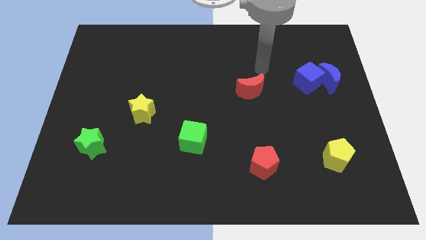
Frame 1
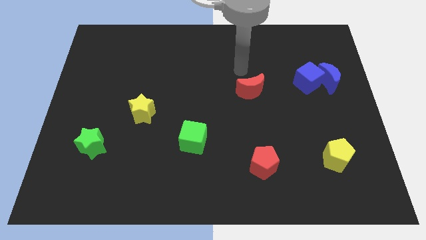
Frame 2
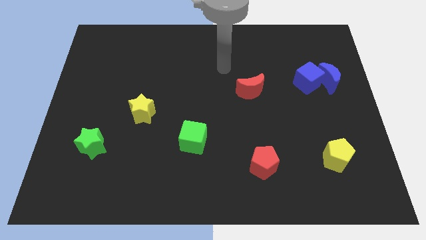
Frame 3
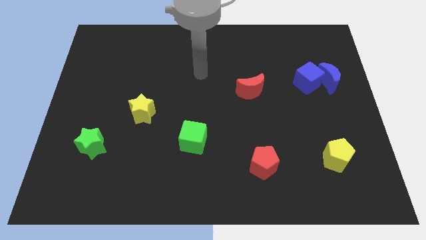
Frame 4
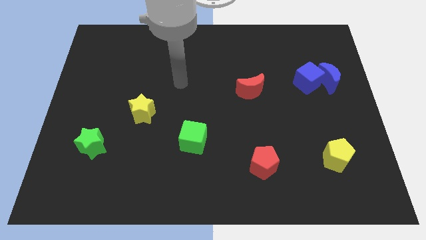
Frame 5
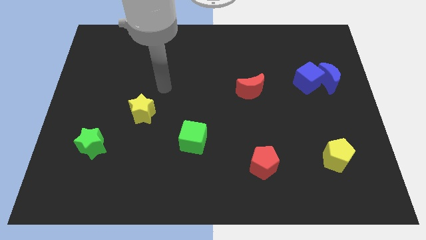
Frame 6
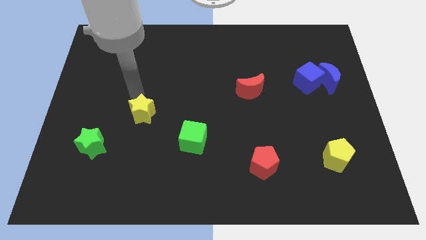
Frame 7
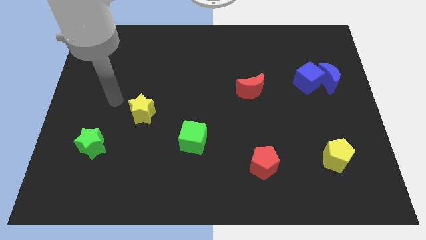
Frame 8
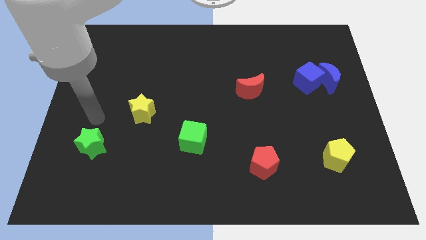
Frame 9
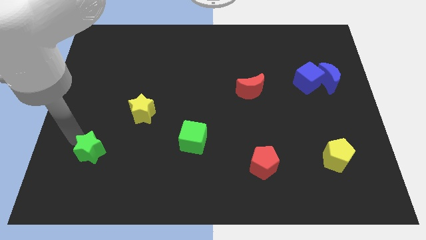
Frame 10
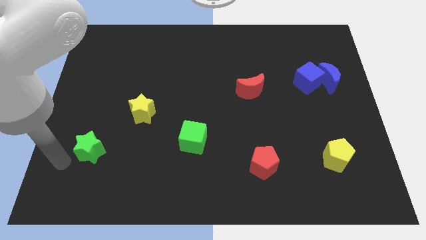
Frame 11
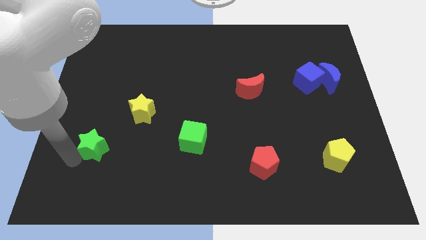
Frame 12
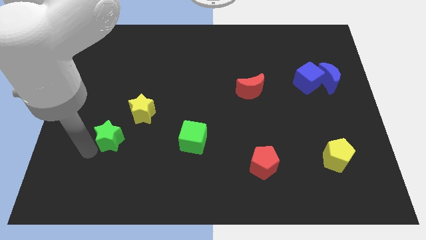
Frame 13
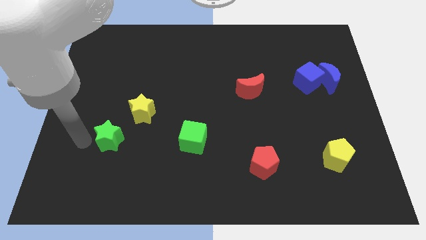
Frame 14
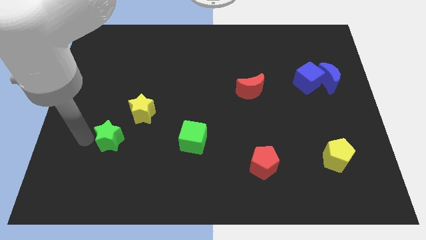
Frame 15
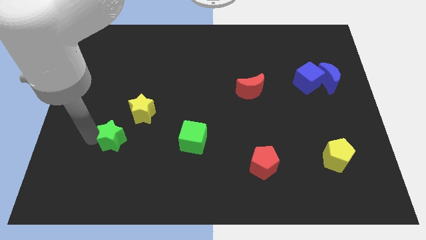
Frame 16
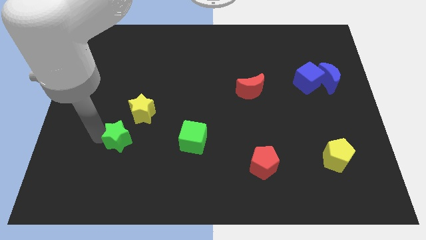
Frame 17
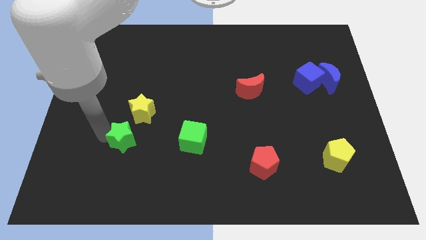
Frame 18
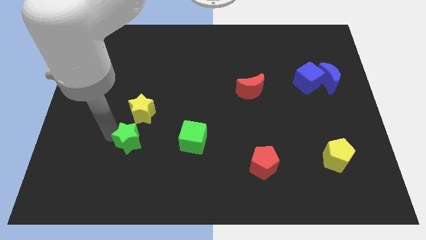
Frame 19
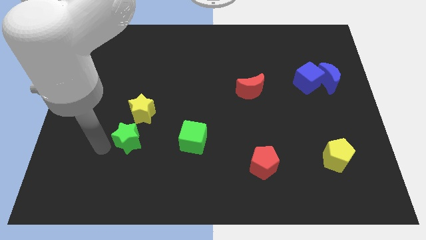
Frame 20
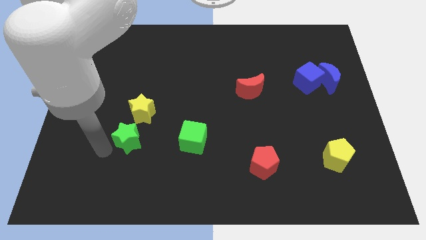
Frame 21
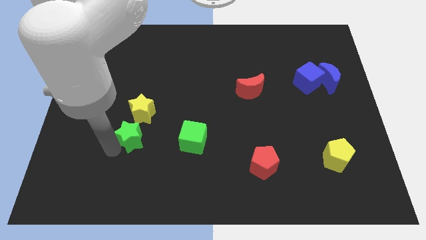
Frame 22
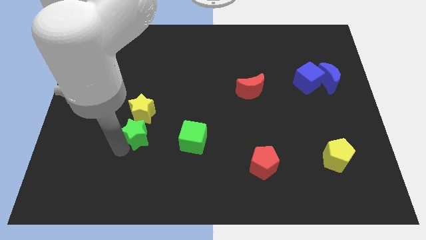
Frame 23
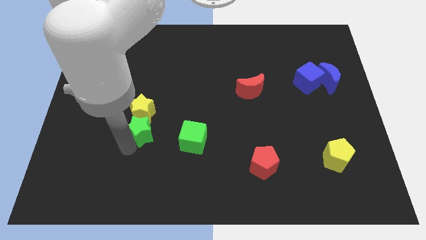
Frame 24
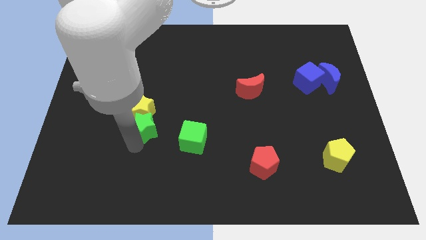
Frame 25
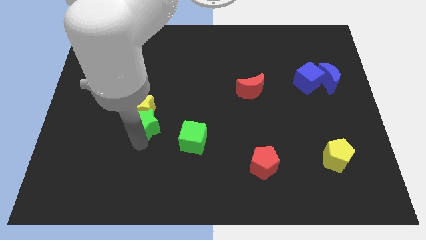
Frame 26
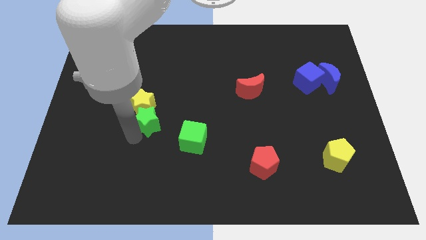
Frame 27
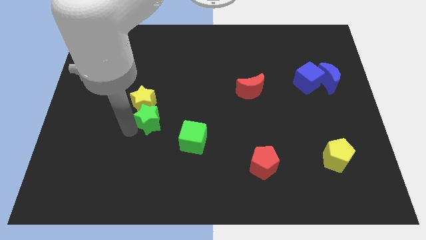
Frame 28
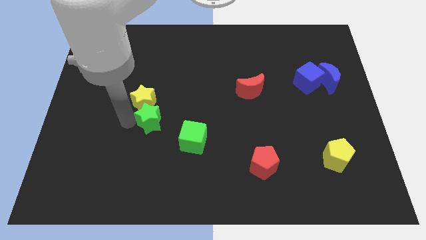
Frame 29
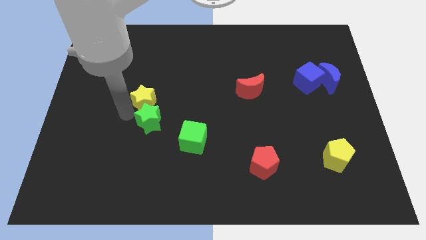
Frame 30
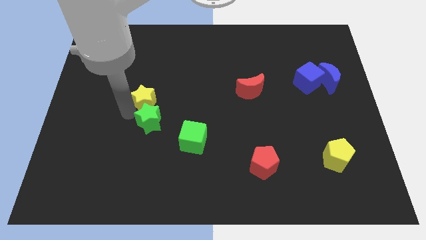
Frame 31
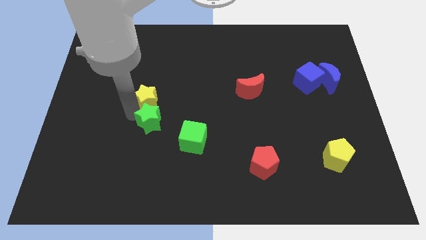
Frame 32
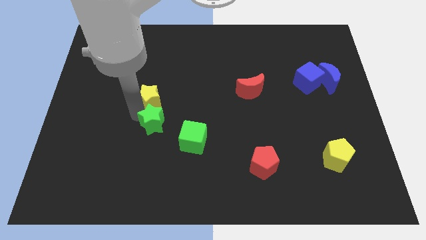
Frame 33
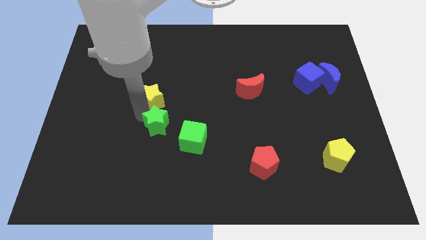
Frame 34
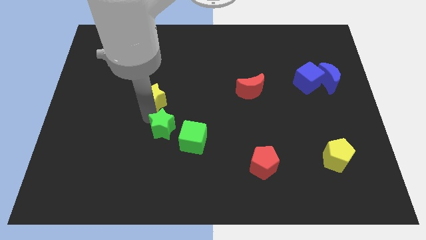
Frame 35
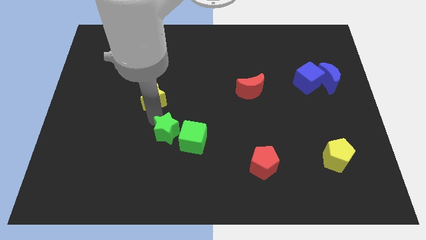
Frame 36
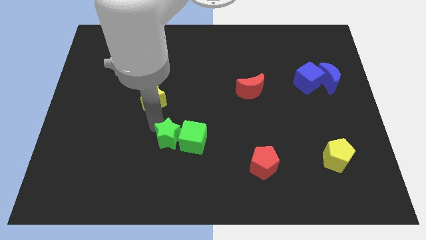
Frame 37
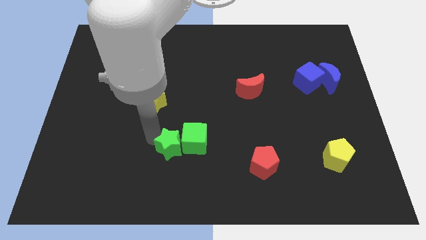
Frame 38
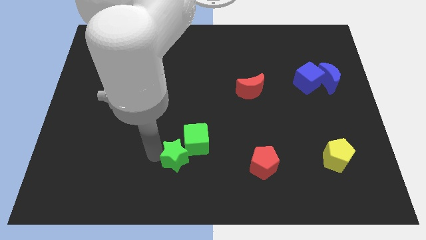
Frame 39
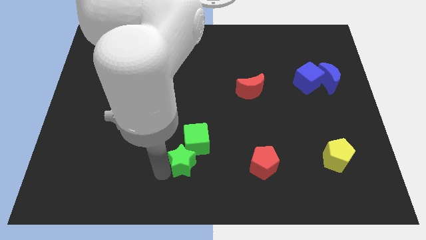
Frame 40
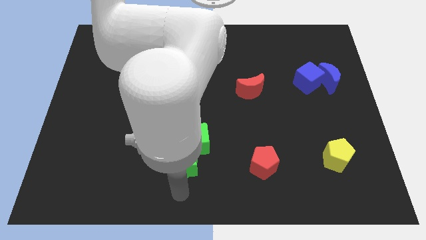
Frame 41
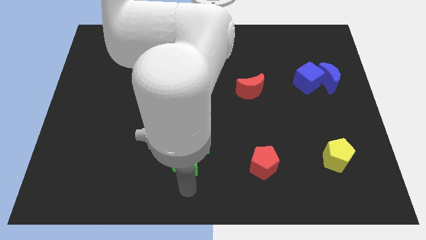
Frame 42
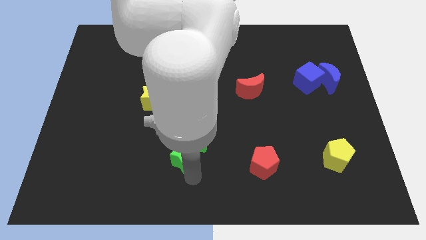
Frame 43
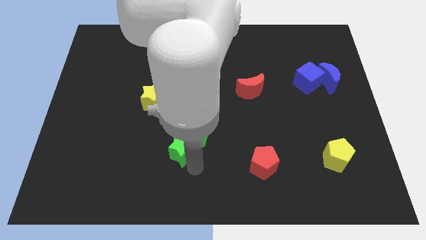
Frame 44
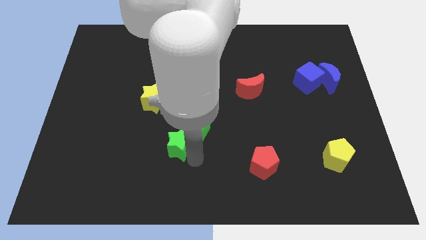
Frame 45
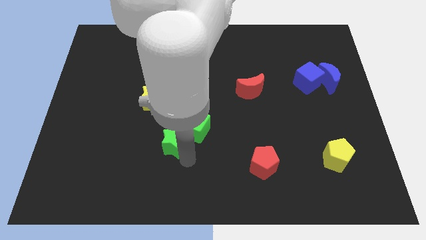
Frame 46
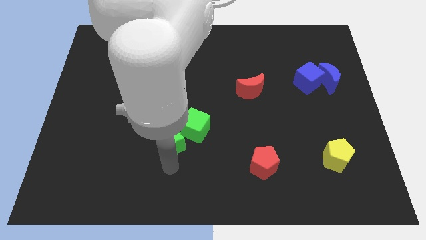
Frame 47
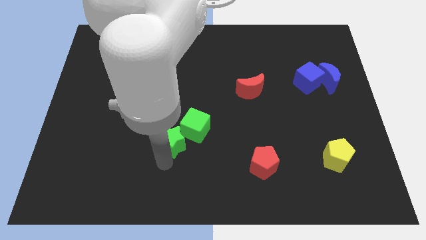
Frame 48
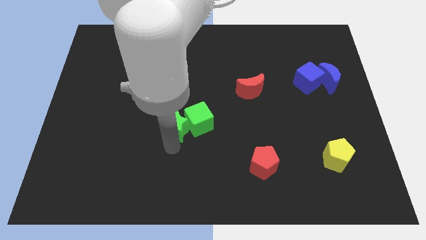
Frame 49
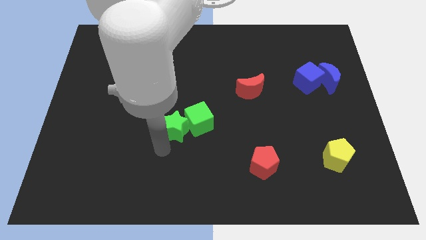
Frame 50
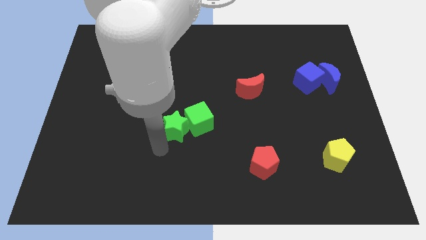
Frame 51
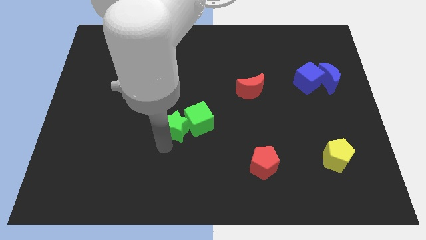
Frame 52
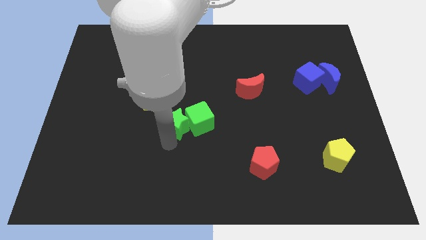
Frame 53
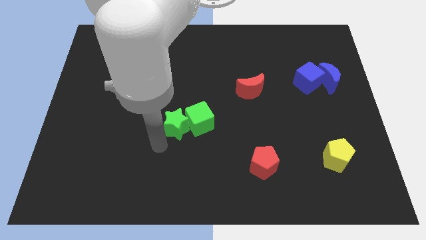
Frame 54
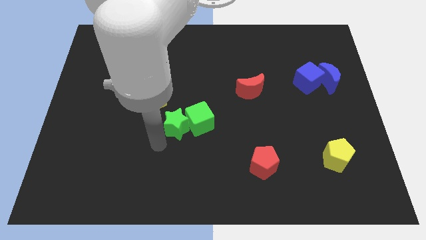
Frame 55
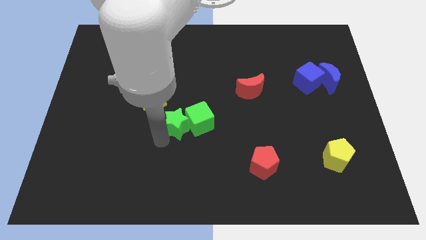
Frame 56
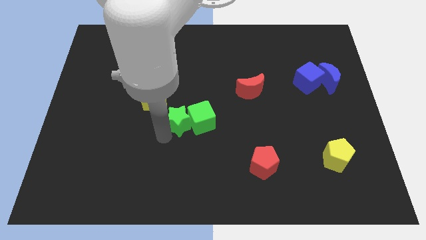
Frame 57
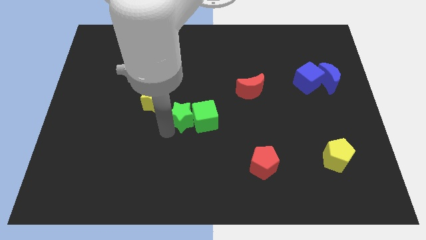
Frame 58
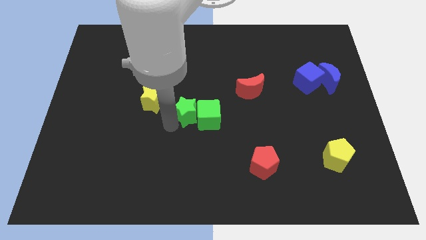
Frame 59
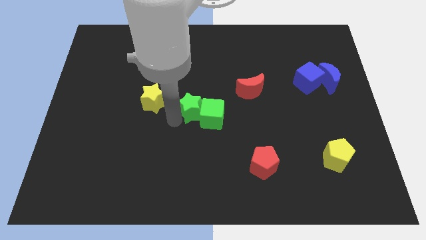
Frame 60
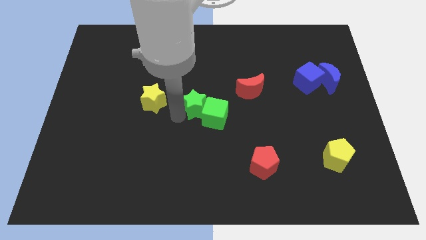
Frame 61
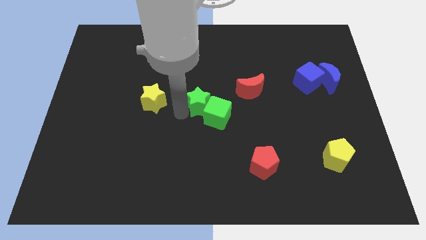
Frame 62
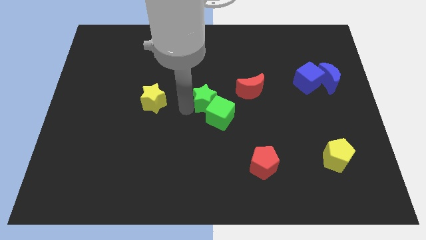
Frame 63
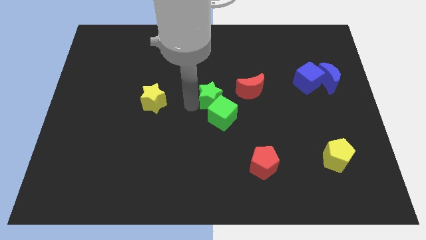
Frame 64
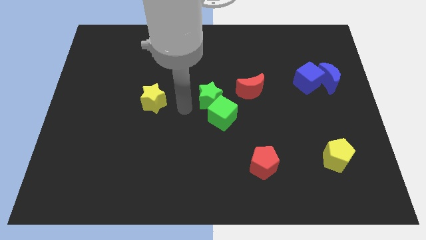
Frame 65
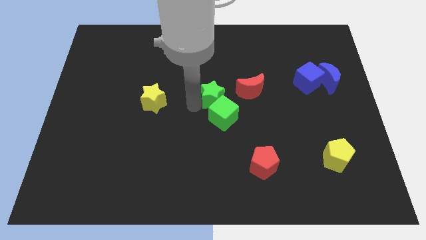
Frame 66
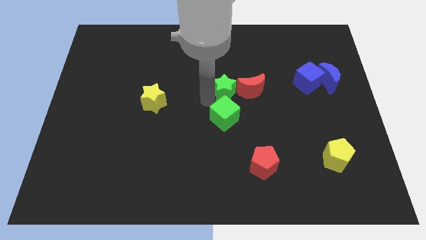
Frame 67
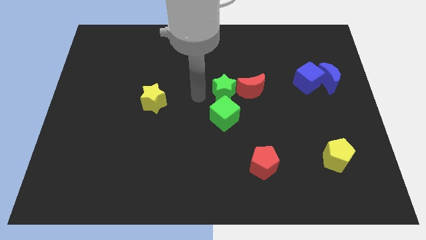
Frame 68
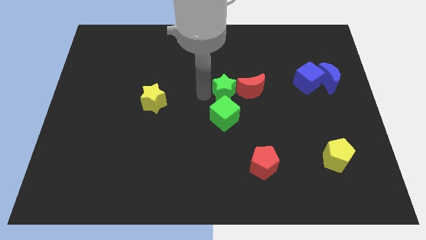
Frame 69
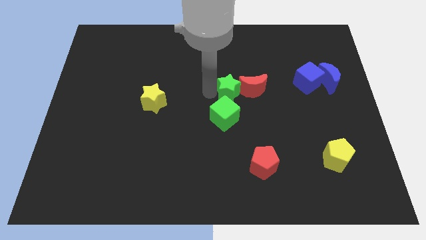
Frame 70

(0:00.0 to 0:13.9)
slide the green star to the red moon
